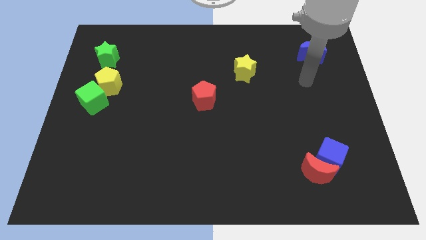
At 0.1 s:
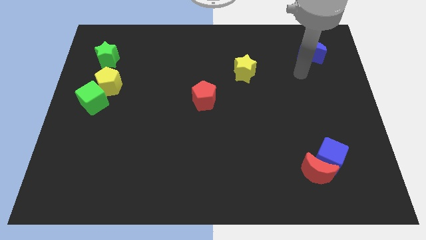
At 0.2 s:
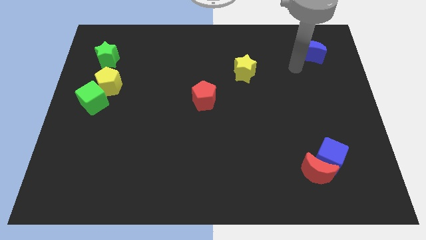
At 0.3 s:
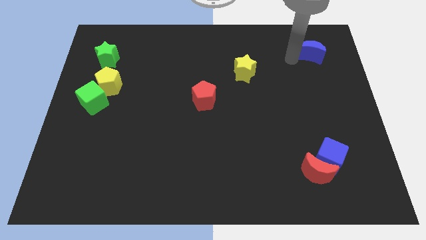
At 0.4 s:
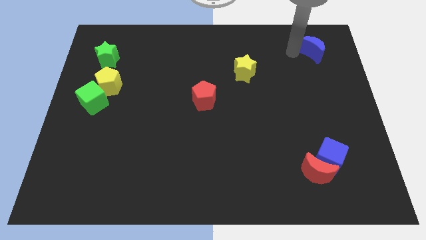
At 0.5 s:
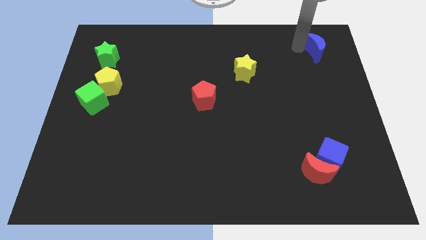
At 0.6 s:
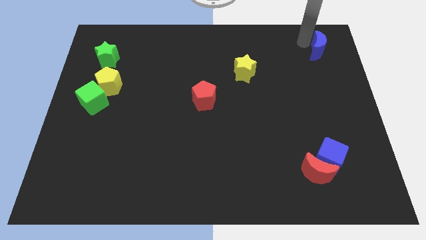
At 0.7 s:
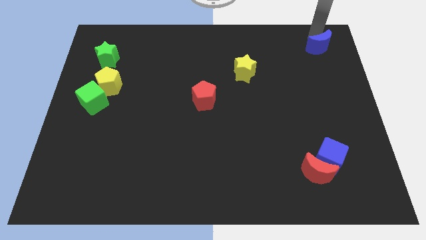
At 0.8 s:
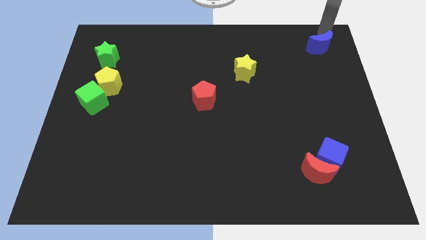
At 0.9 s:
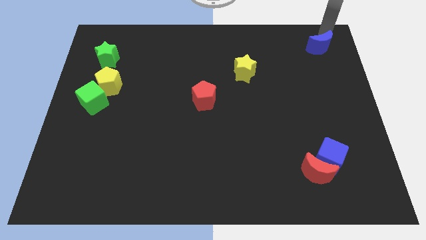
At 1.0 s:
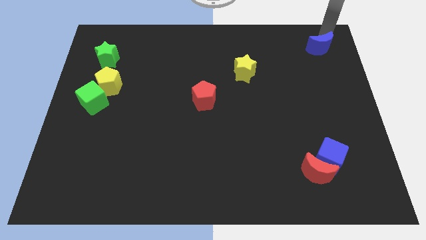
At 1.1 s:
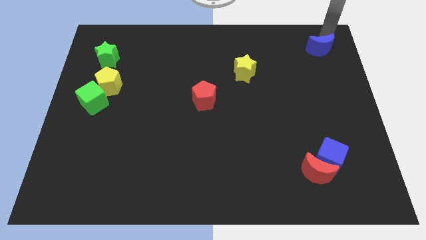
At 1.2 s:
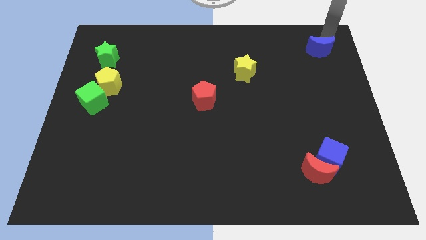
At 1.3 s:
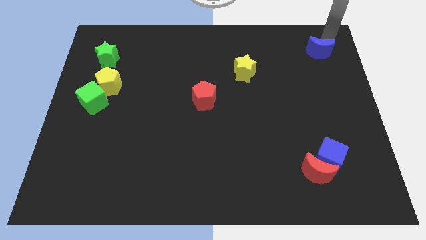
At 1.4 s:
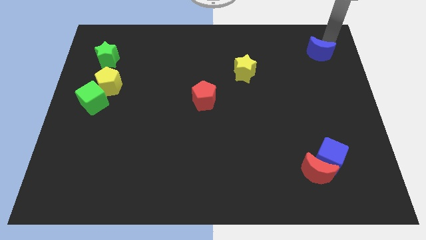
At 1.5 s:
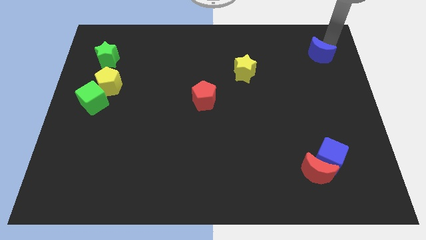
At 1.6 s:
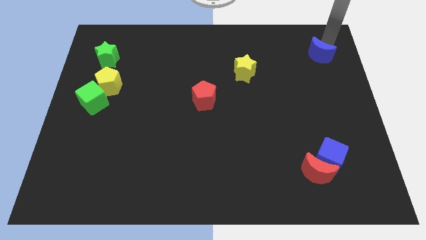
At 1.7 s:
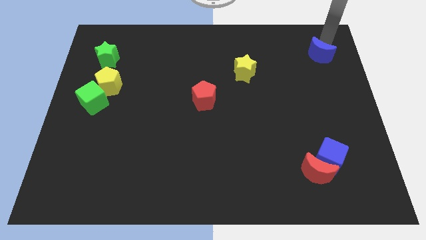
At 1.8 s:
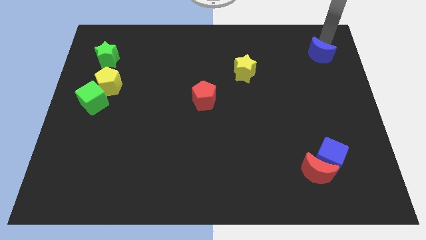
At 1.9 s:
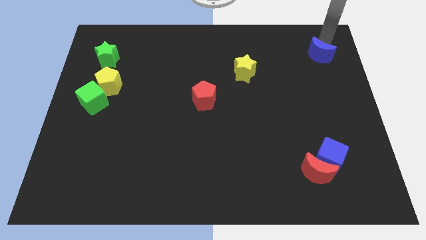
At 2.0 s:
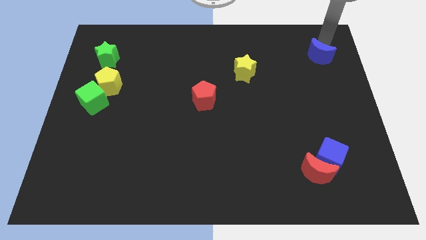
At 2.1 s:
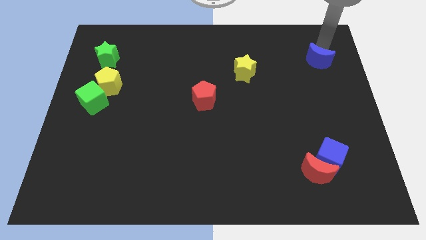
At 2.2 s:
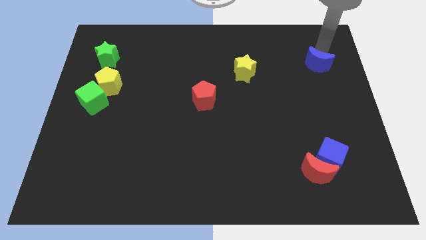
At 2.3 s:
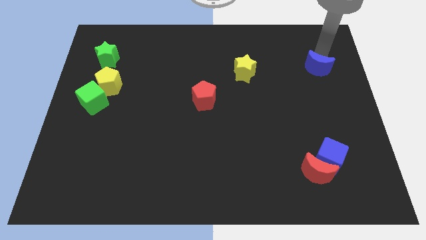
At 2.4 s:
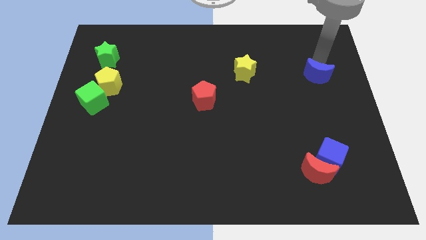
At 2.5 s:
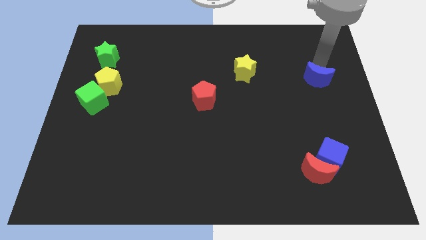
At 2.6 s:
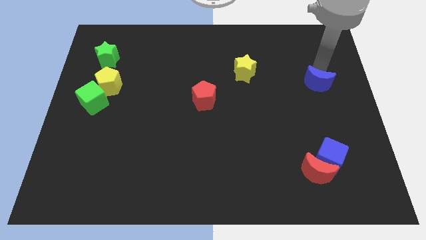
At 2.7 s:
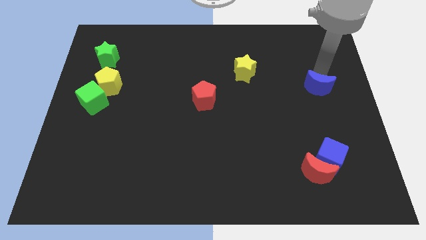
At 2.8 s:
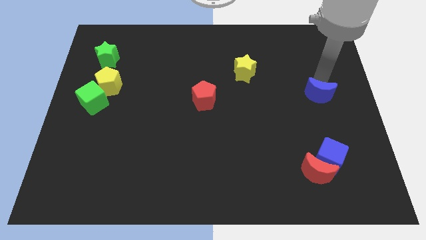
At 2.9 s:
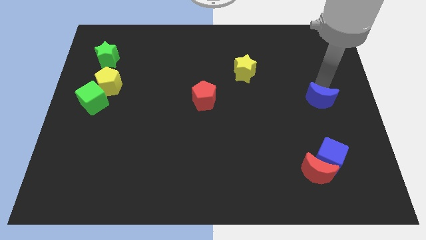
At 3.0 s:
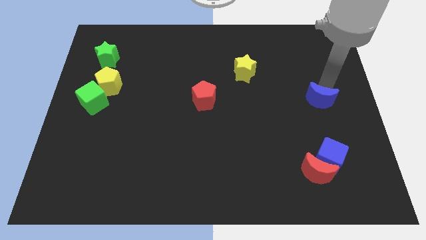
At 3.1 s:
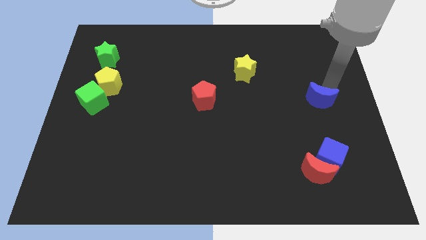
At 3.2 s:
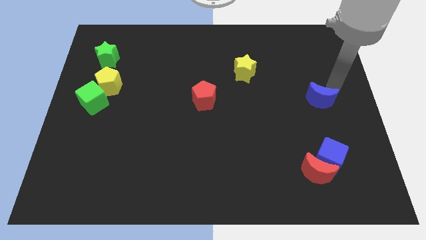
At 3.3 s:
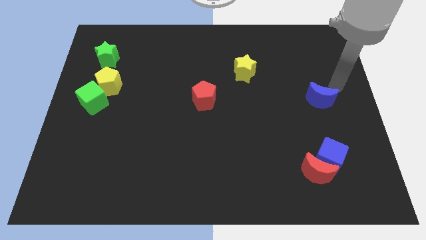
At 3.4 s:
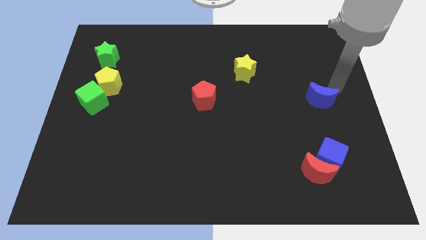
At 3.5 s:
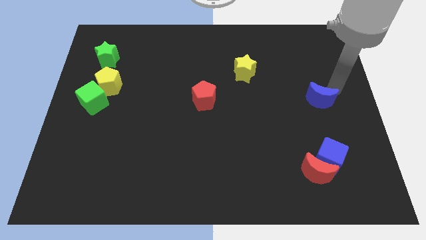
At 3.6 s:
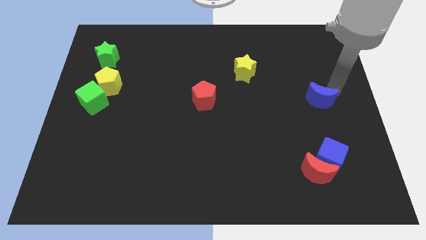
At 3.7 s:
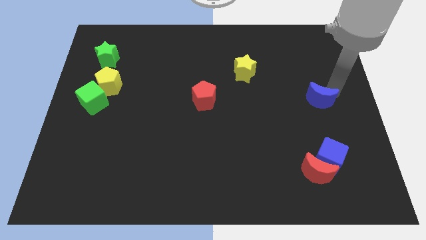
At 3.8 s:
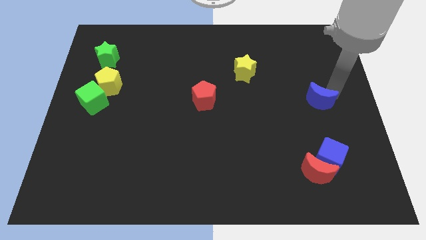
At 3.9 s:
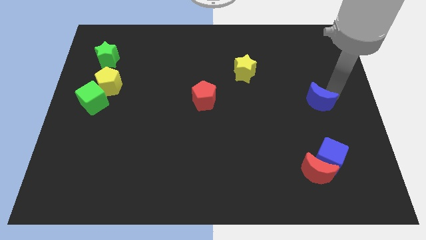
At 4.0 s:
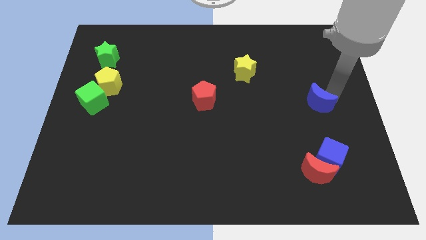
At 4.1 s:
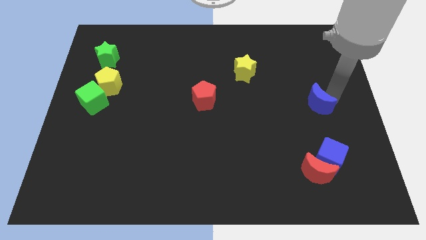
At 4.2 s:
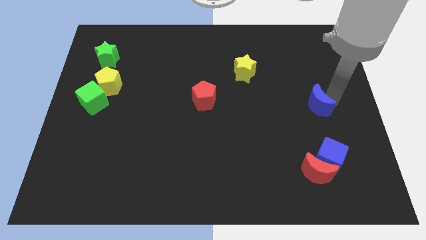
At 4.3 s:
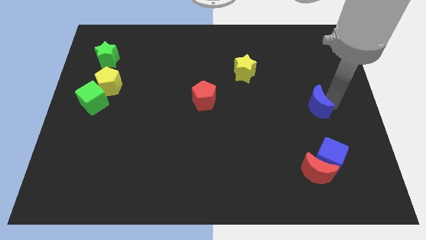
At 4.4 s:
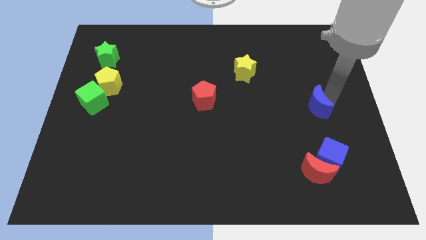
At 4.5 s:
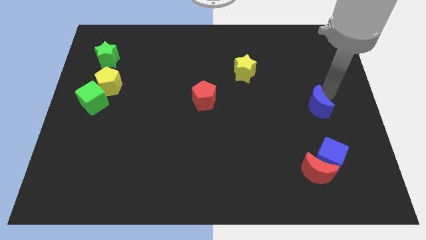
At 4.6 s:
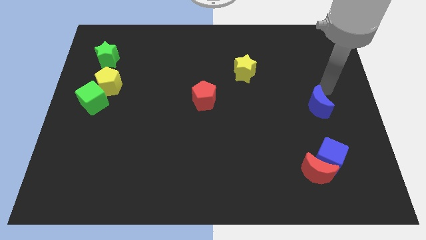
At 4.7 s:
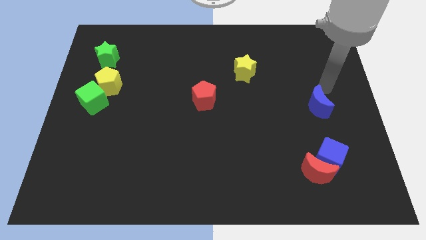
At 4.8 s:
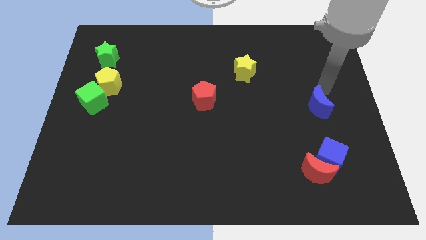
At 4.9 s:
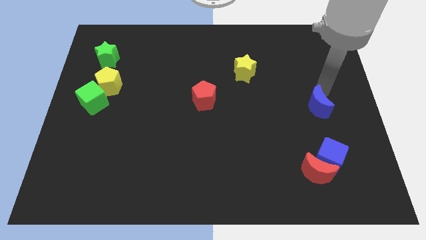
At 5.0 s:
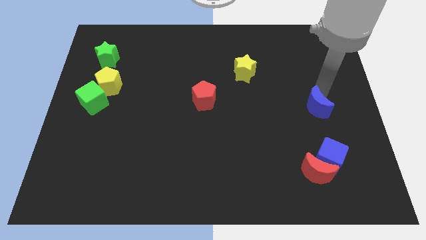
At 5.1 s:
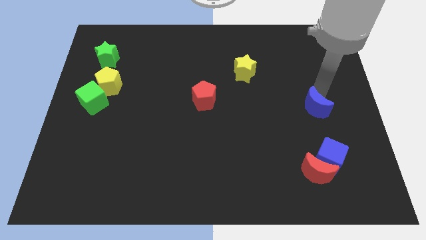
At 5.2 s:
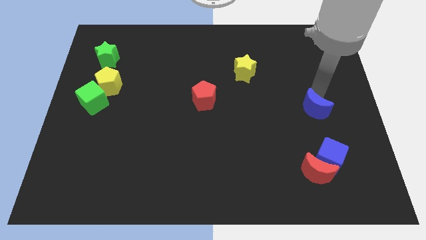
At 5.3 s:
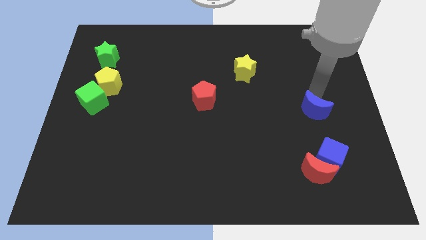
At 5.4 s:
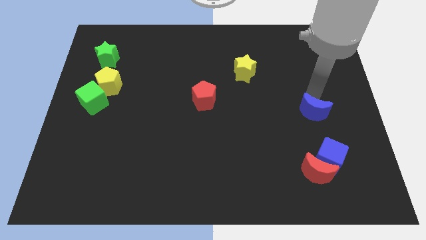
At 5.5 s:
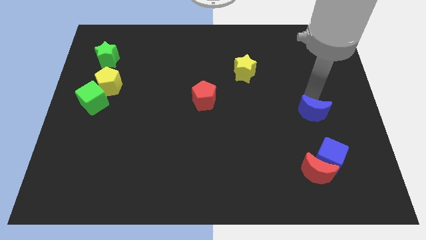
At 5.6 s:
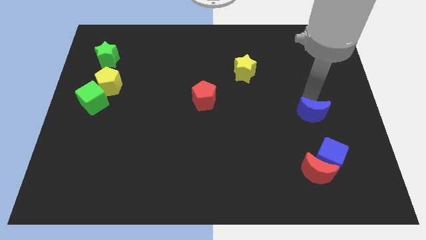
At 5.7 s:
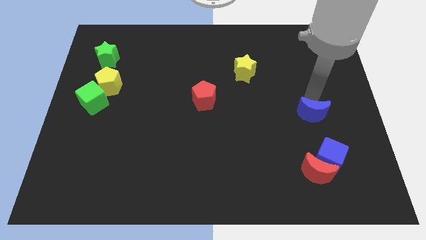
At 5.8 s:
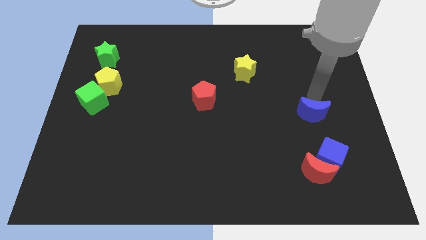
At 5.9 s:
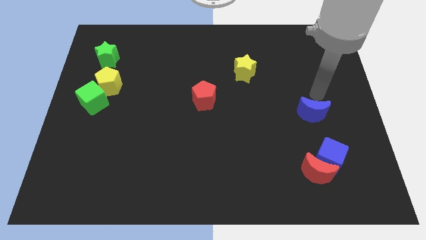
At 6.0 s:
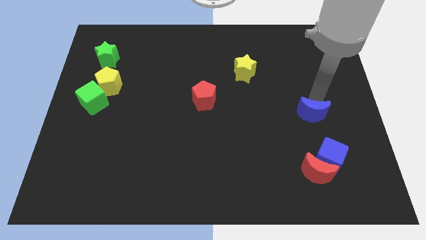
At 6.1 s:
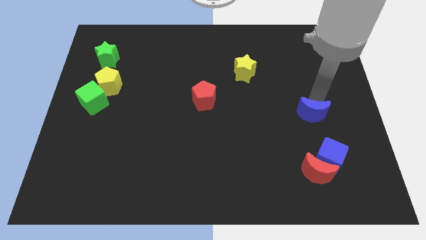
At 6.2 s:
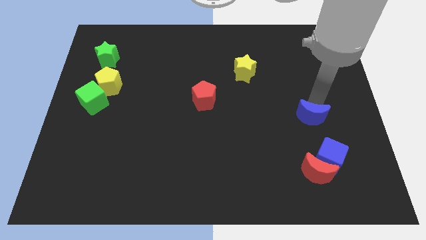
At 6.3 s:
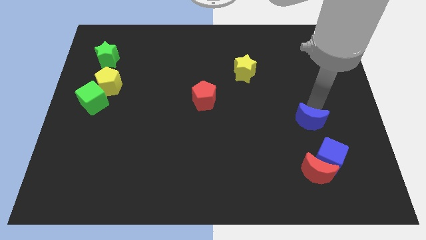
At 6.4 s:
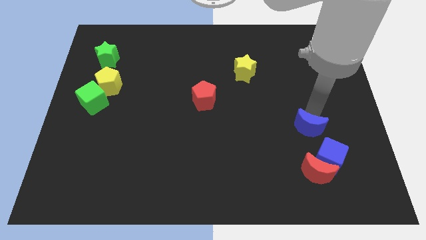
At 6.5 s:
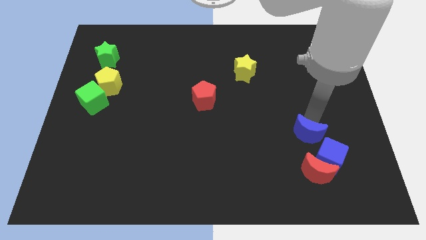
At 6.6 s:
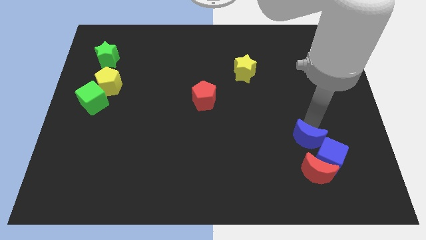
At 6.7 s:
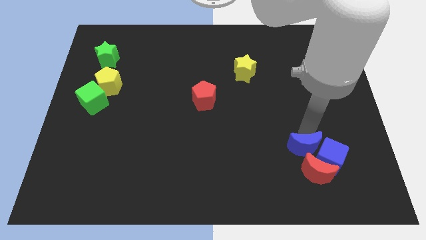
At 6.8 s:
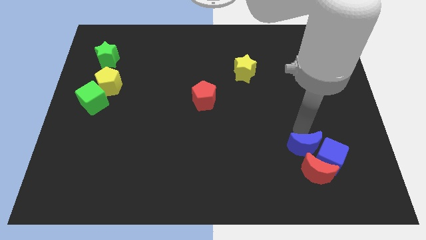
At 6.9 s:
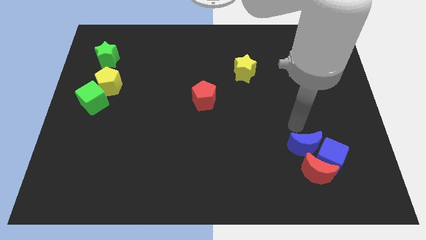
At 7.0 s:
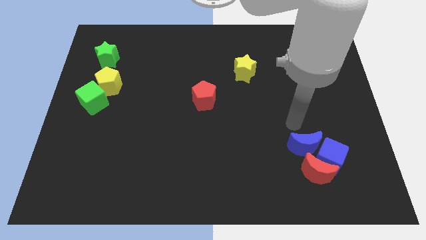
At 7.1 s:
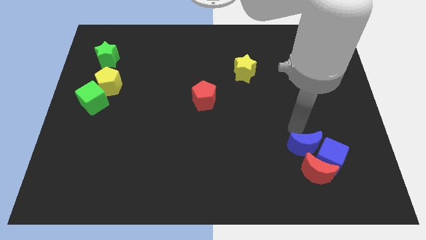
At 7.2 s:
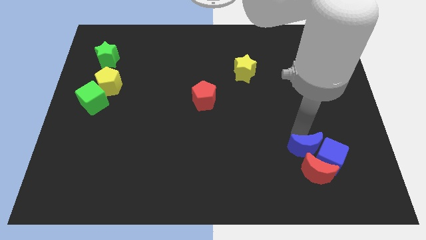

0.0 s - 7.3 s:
slide the blue moon to the red moon

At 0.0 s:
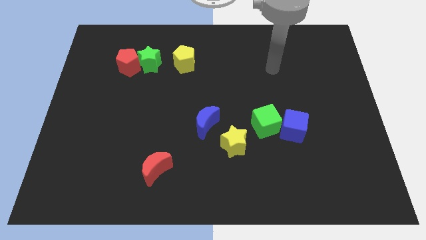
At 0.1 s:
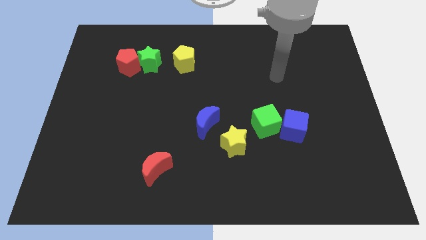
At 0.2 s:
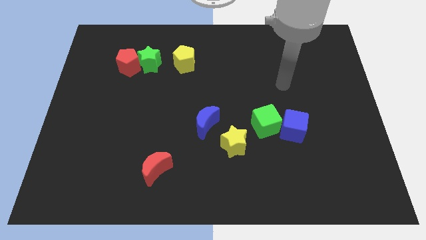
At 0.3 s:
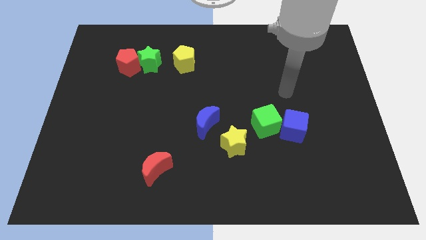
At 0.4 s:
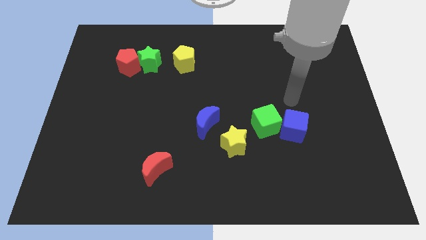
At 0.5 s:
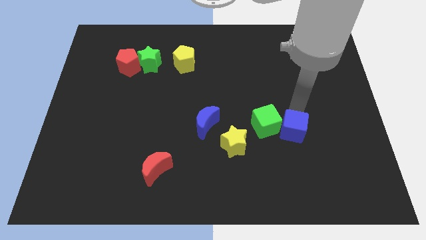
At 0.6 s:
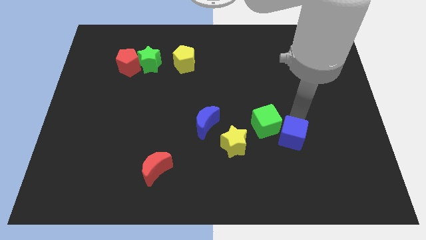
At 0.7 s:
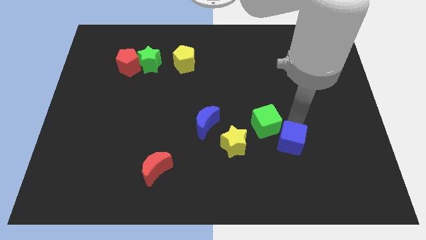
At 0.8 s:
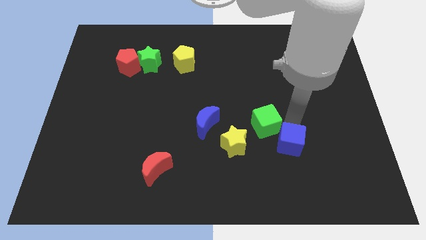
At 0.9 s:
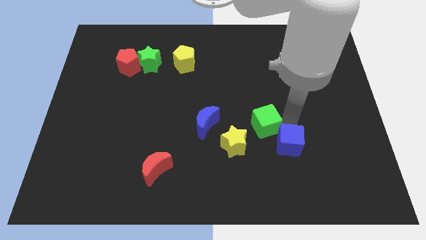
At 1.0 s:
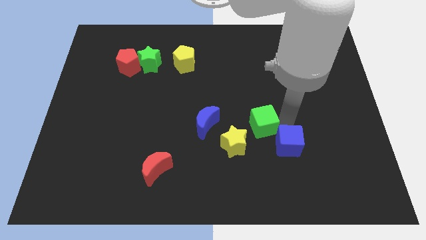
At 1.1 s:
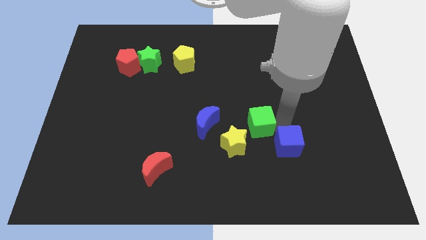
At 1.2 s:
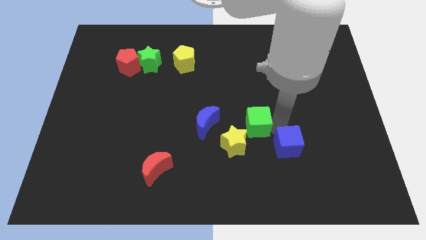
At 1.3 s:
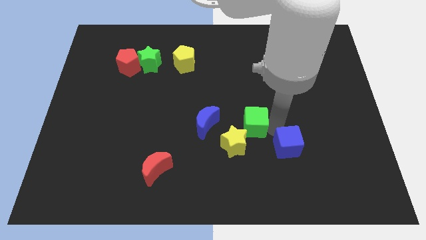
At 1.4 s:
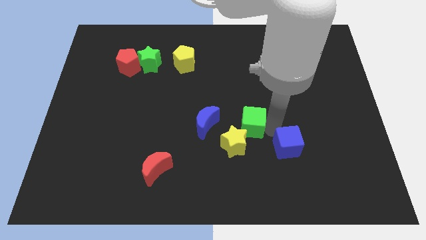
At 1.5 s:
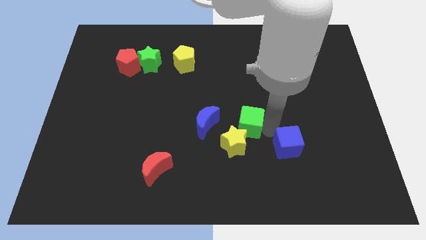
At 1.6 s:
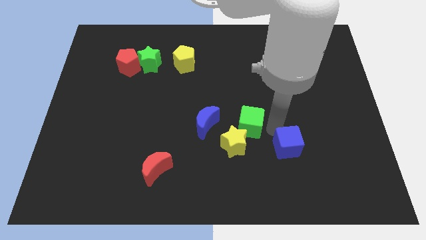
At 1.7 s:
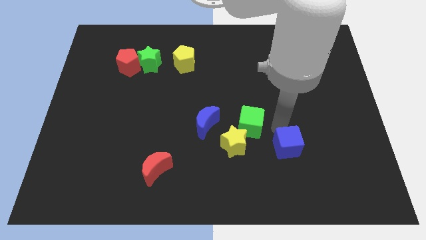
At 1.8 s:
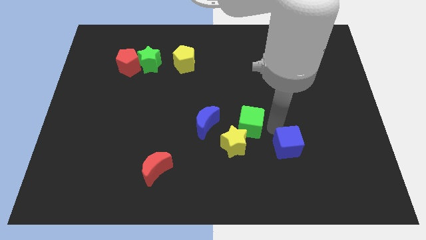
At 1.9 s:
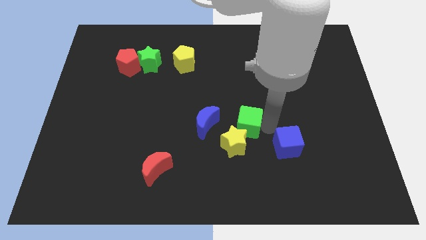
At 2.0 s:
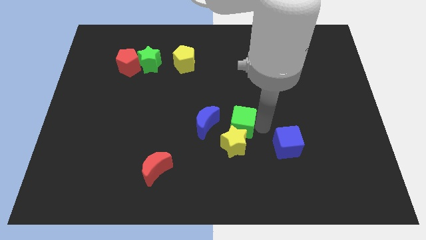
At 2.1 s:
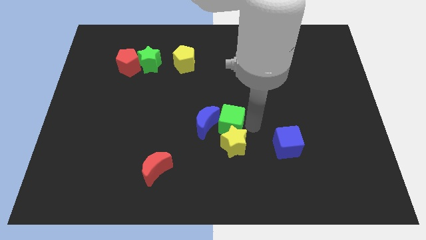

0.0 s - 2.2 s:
slide the green cube next to the blue moon
